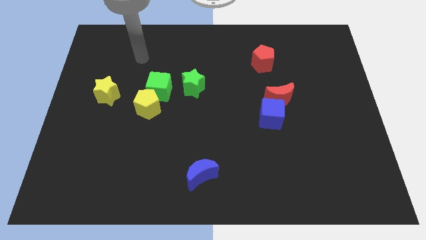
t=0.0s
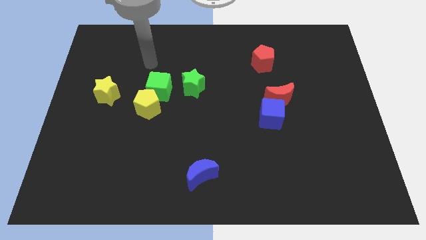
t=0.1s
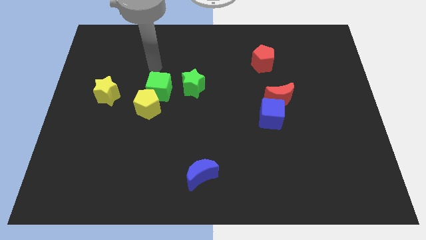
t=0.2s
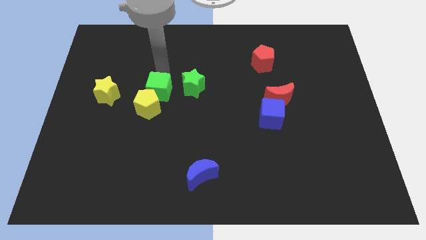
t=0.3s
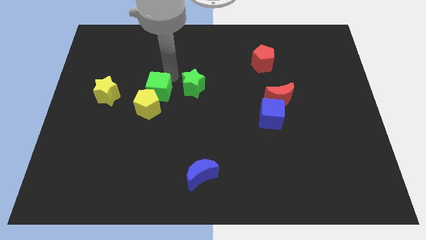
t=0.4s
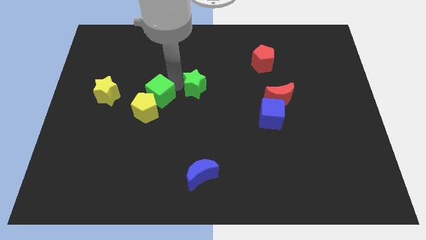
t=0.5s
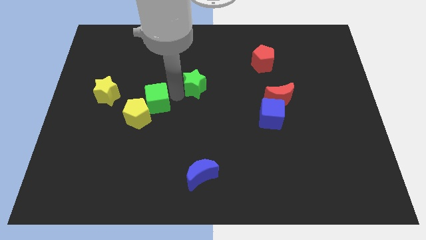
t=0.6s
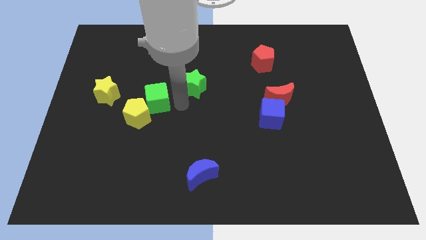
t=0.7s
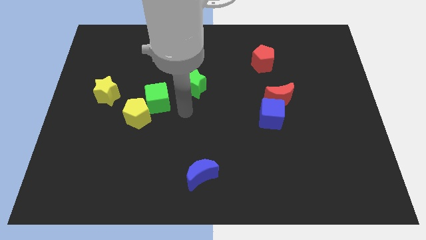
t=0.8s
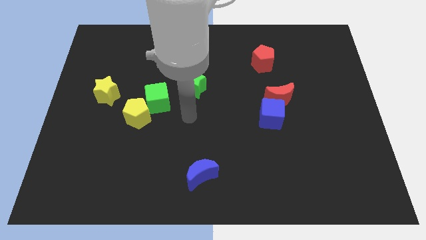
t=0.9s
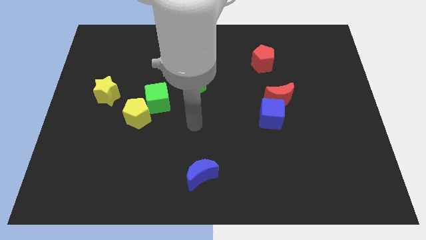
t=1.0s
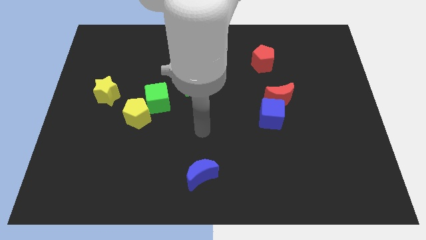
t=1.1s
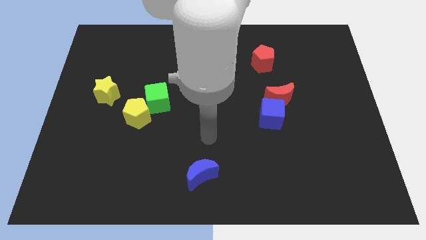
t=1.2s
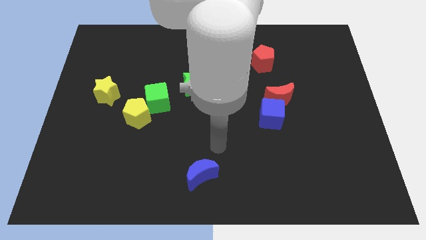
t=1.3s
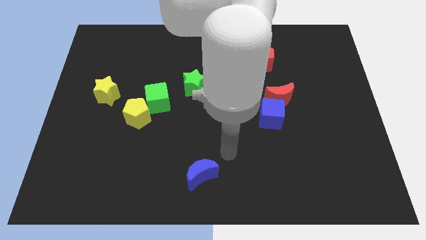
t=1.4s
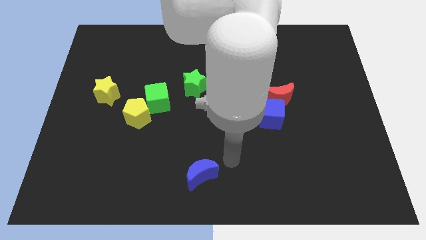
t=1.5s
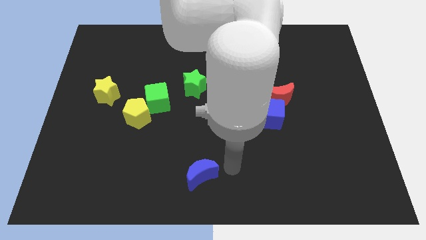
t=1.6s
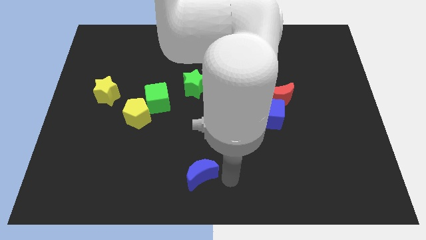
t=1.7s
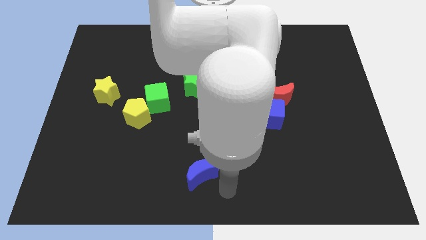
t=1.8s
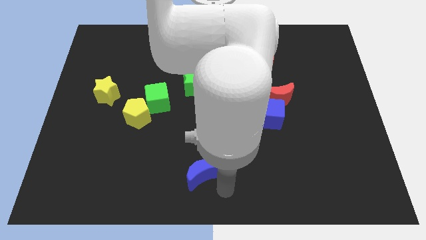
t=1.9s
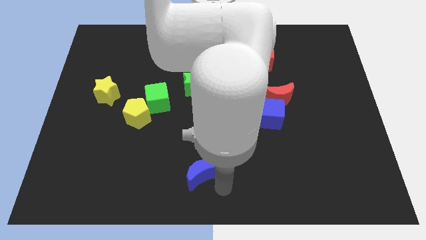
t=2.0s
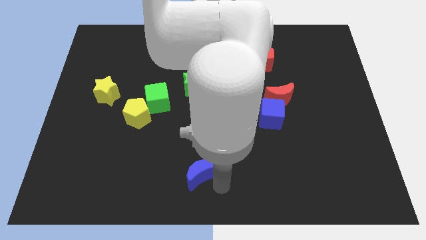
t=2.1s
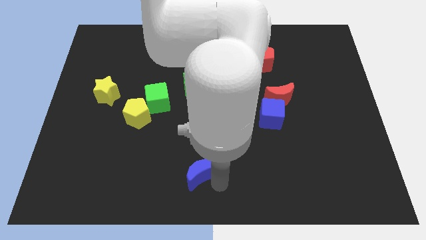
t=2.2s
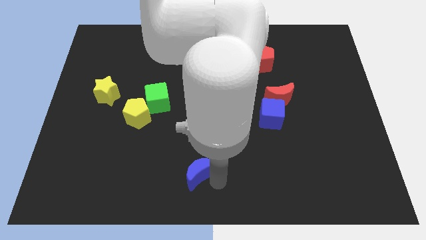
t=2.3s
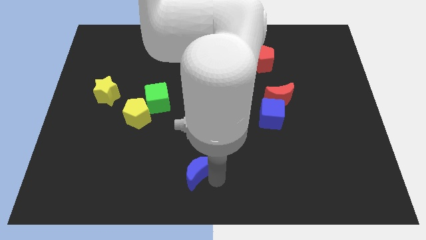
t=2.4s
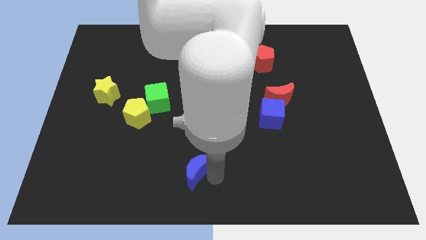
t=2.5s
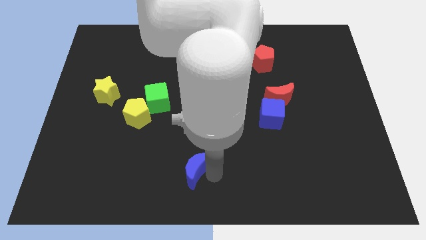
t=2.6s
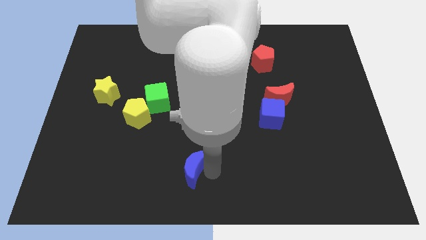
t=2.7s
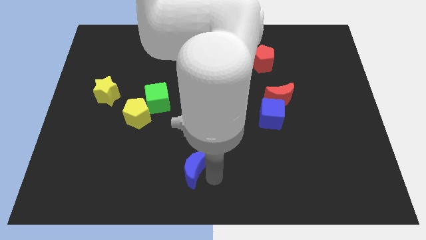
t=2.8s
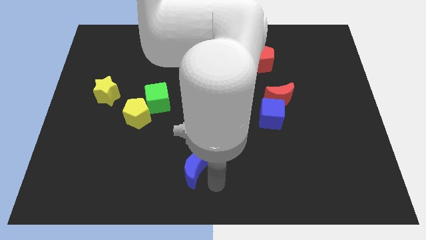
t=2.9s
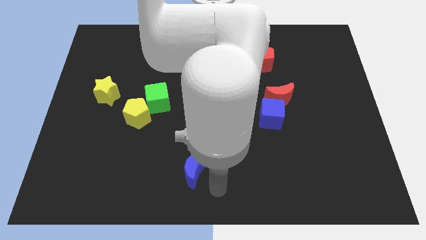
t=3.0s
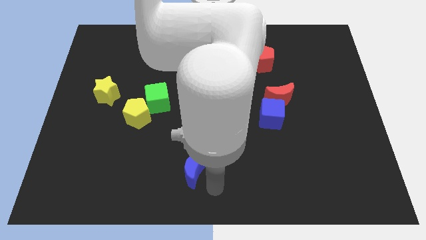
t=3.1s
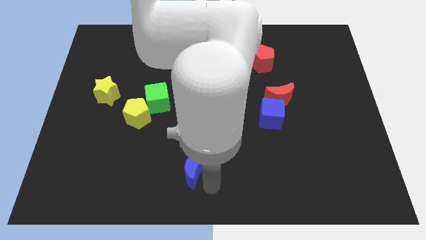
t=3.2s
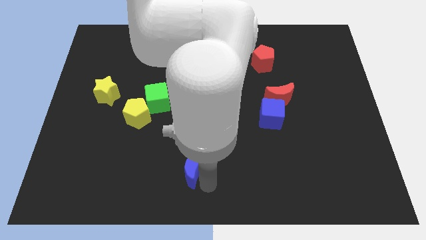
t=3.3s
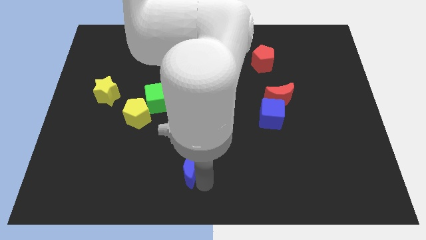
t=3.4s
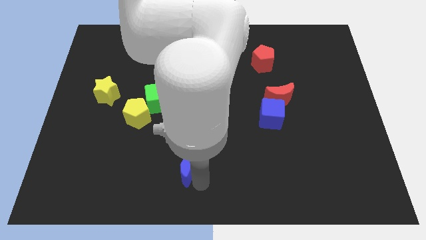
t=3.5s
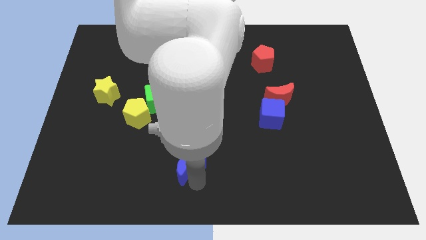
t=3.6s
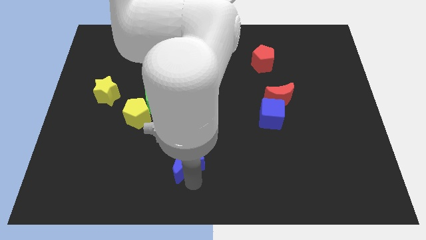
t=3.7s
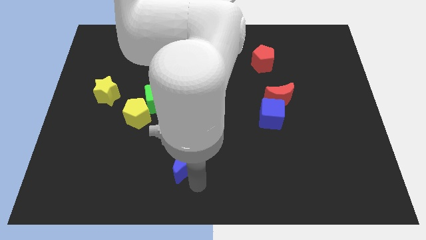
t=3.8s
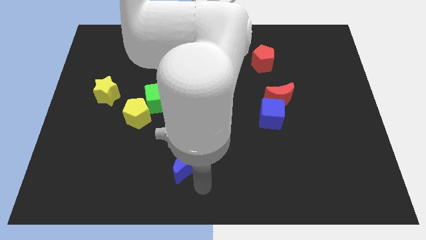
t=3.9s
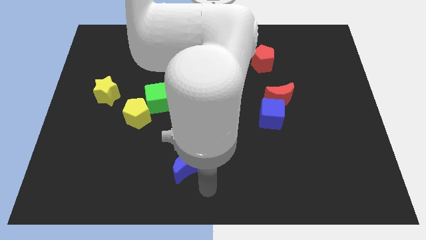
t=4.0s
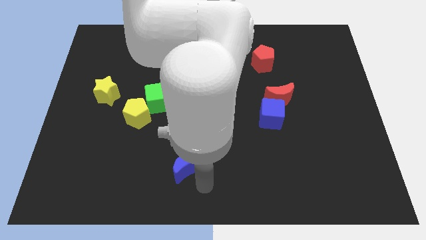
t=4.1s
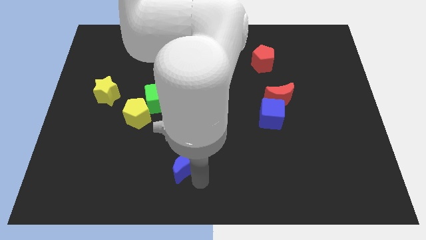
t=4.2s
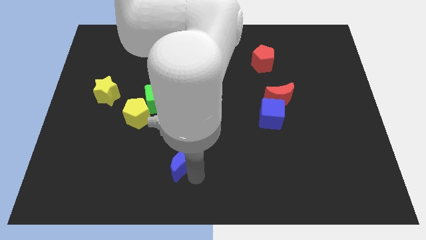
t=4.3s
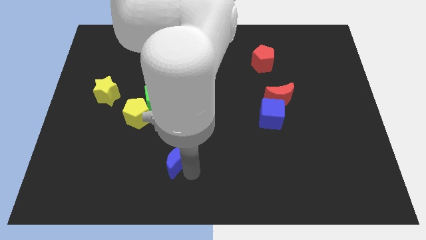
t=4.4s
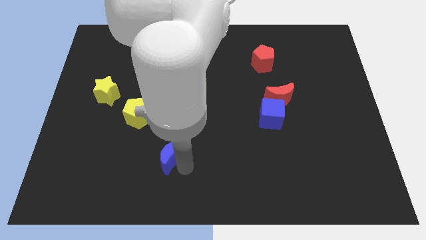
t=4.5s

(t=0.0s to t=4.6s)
push the blue moon a little bit upwards and to the left diagonally

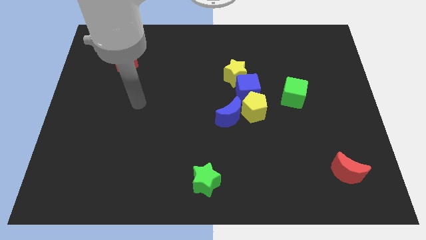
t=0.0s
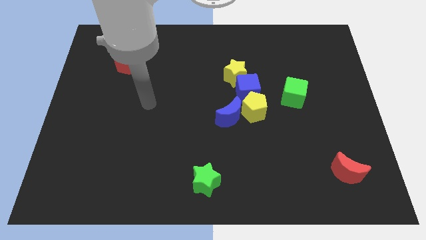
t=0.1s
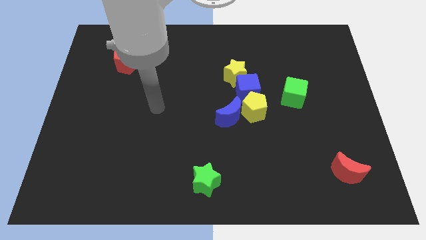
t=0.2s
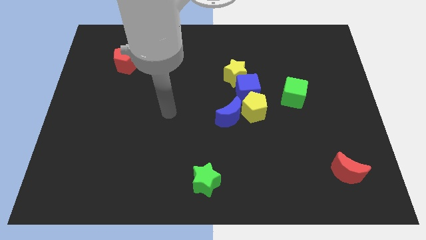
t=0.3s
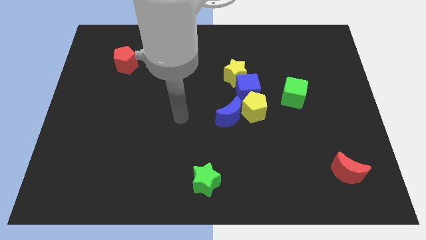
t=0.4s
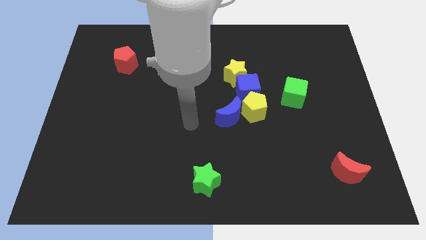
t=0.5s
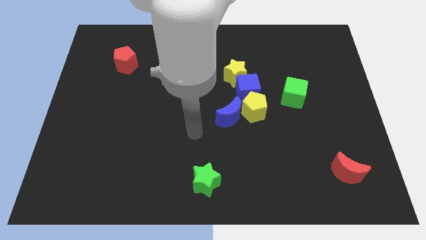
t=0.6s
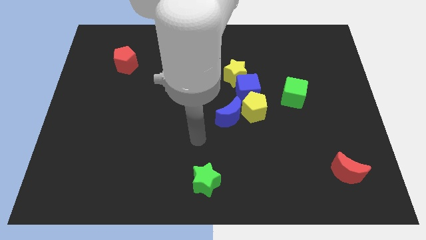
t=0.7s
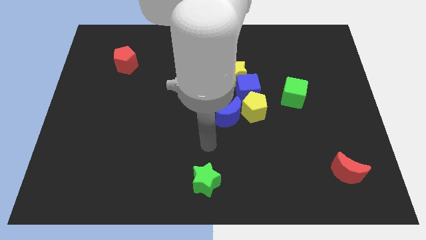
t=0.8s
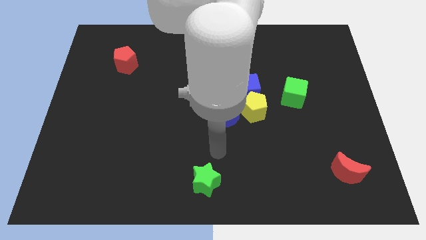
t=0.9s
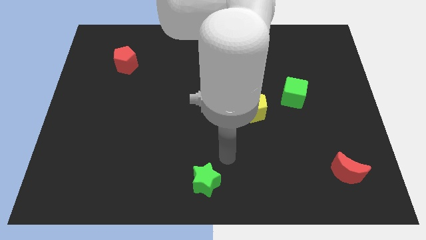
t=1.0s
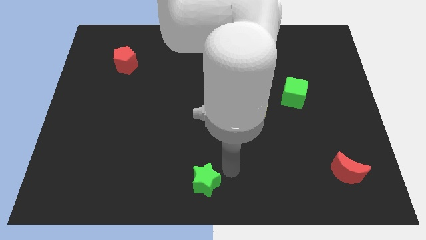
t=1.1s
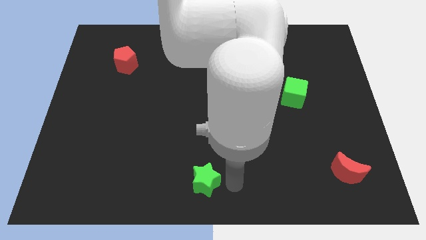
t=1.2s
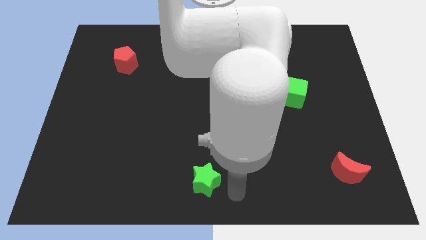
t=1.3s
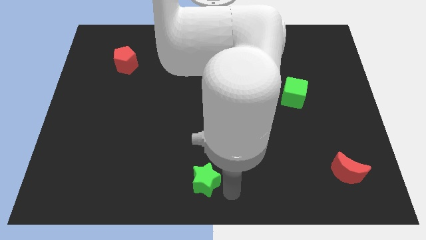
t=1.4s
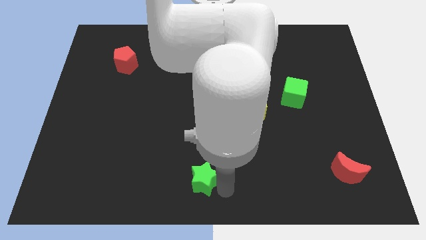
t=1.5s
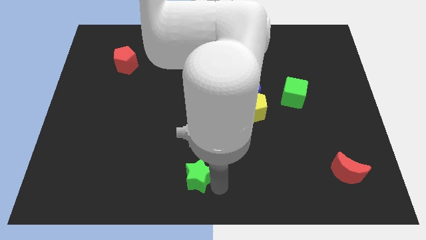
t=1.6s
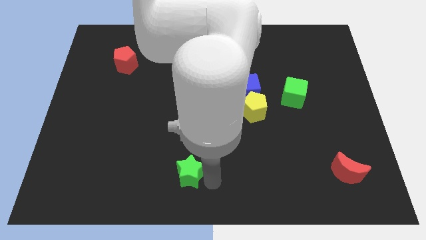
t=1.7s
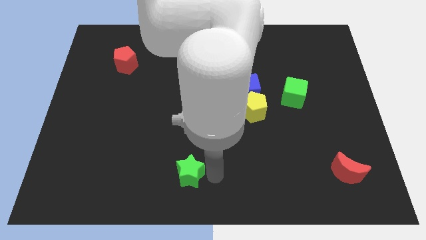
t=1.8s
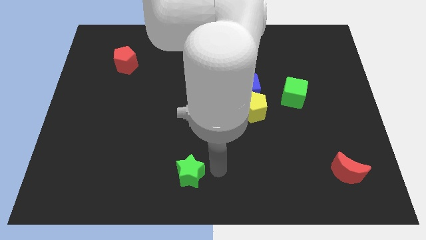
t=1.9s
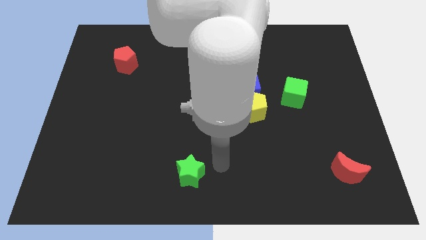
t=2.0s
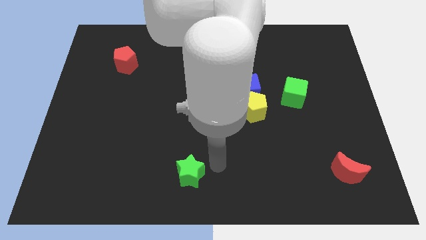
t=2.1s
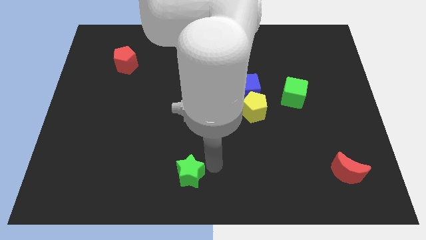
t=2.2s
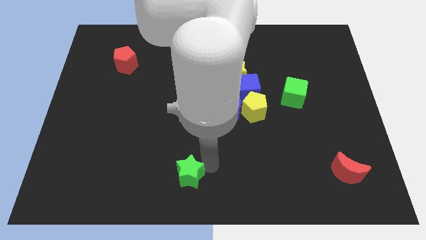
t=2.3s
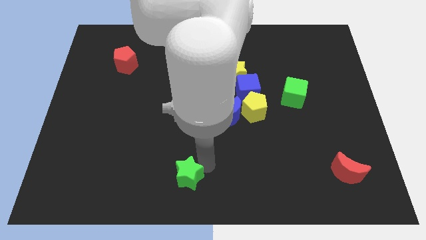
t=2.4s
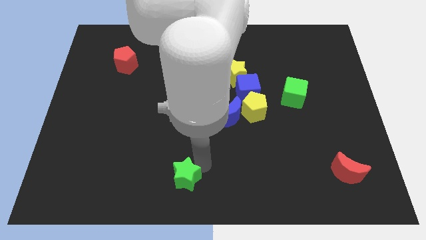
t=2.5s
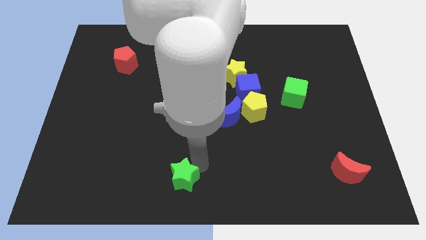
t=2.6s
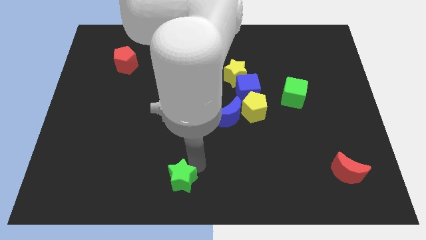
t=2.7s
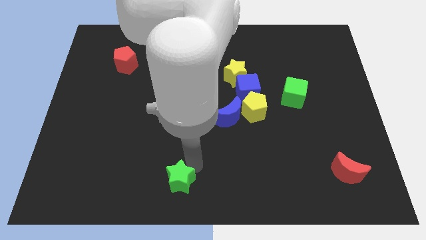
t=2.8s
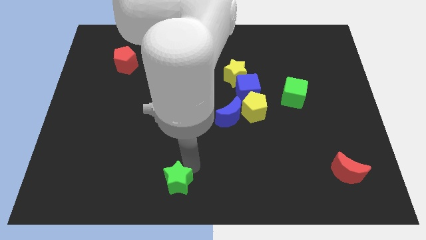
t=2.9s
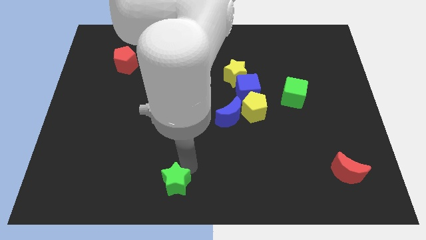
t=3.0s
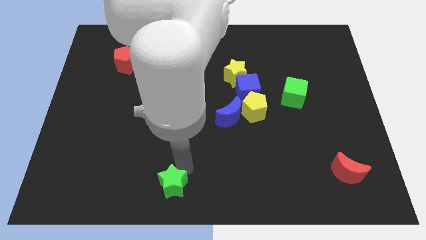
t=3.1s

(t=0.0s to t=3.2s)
slightly slide the green star to the left

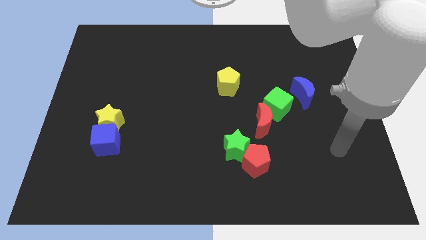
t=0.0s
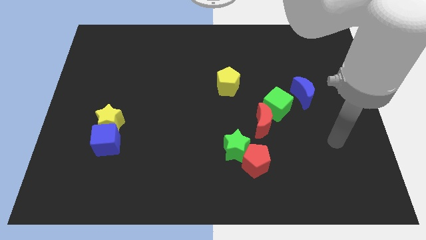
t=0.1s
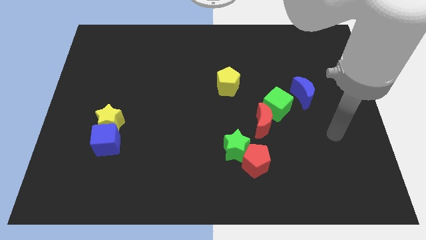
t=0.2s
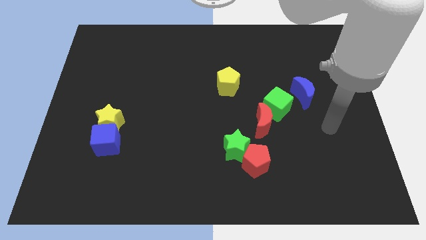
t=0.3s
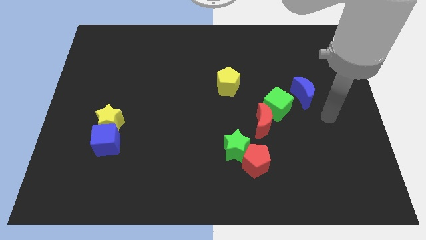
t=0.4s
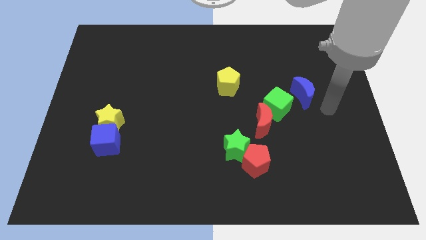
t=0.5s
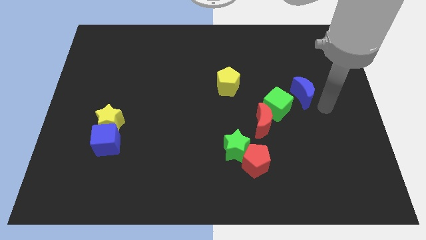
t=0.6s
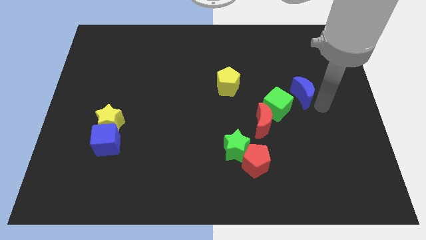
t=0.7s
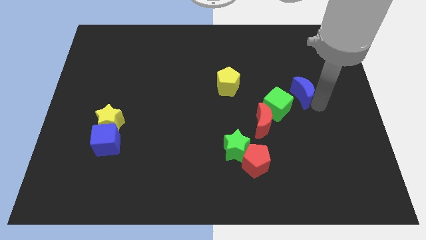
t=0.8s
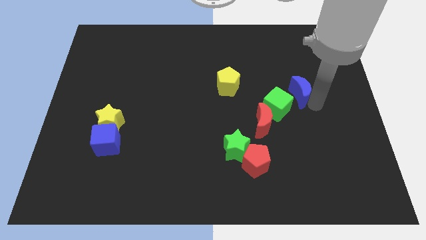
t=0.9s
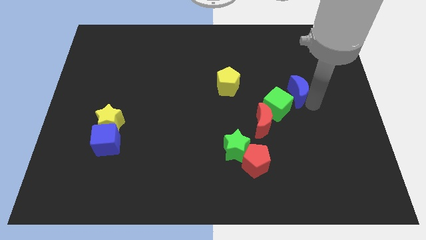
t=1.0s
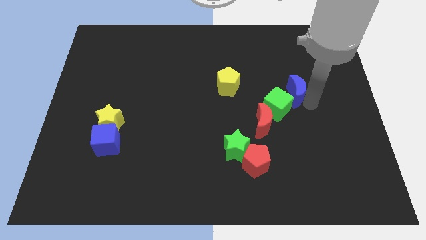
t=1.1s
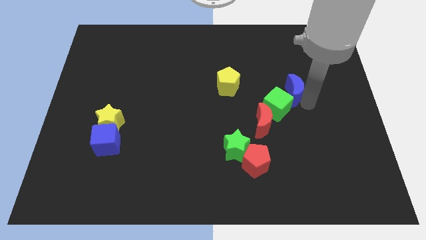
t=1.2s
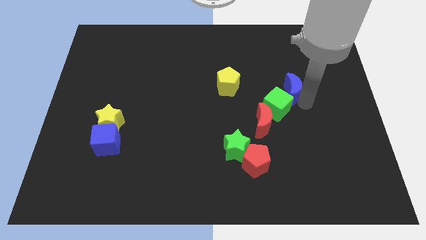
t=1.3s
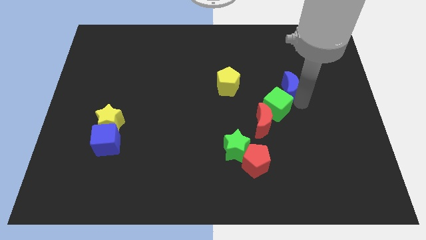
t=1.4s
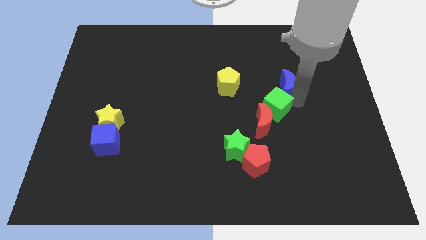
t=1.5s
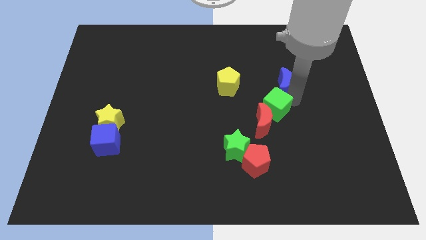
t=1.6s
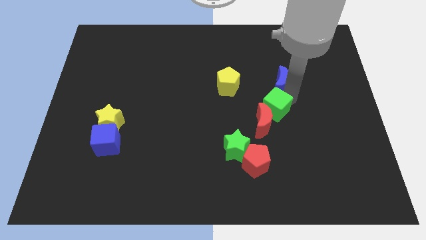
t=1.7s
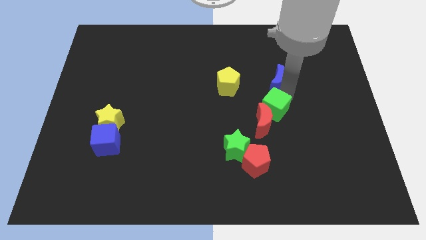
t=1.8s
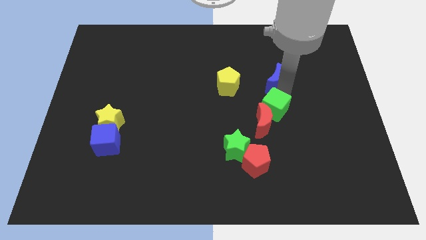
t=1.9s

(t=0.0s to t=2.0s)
push the blue moon somewhat diagonally upwards and to the left
